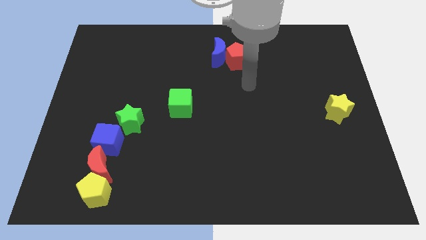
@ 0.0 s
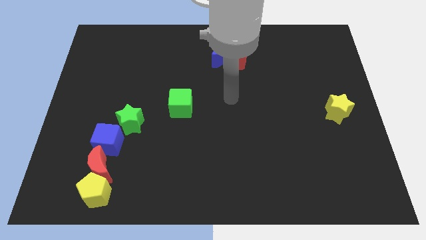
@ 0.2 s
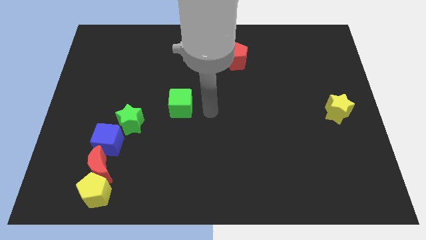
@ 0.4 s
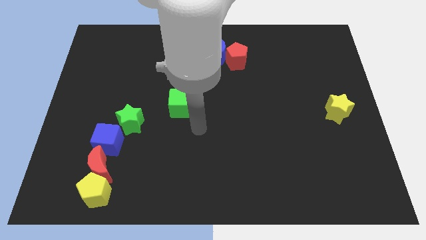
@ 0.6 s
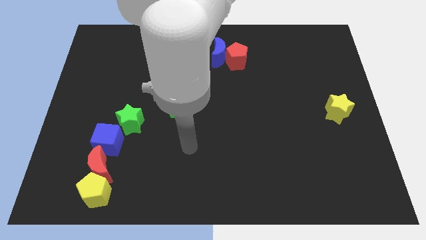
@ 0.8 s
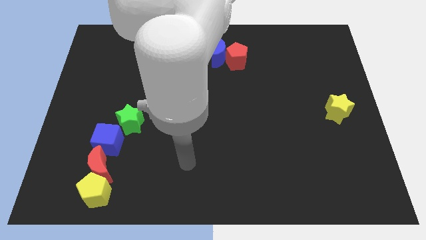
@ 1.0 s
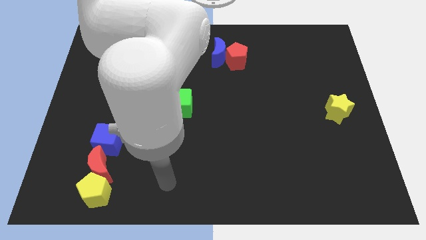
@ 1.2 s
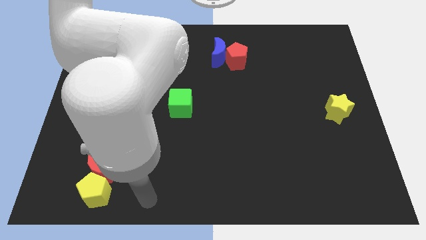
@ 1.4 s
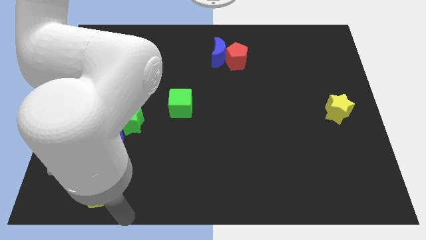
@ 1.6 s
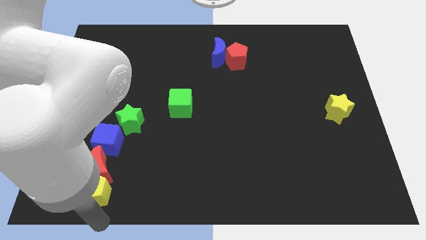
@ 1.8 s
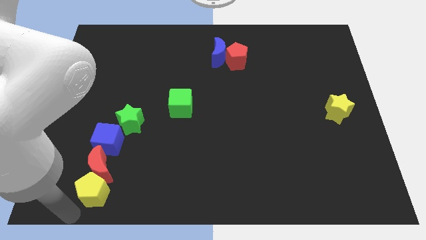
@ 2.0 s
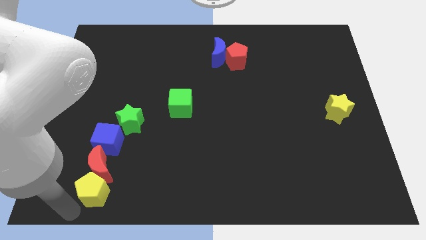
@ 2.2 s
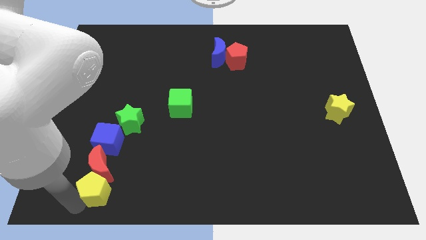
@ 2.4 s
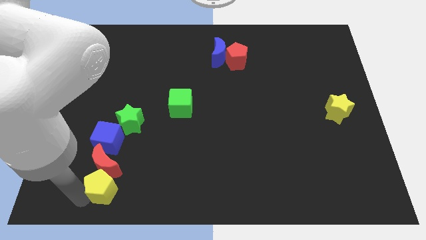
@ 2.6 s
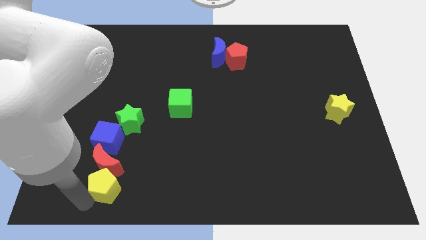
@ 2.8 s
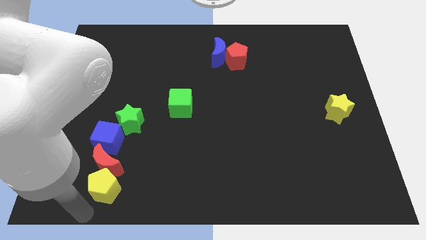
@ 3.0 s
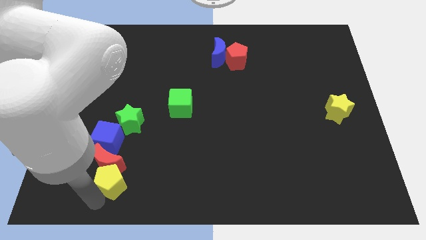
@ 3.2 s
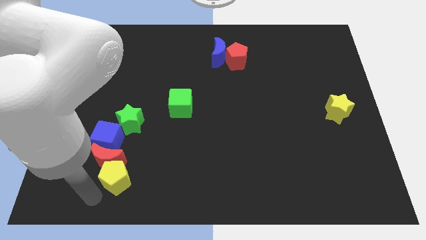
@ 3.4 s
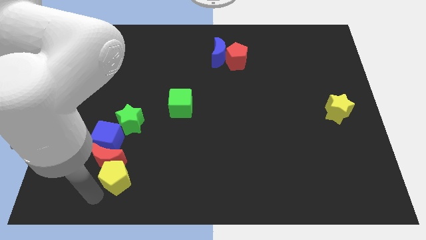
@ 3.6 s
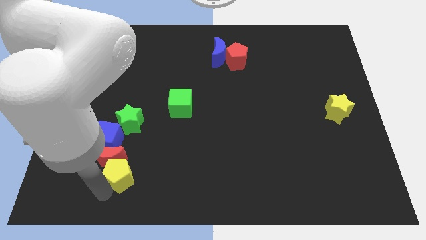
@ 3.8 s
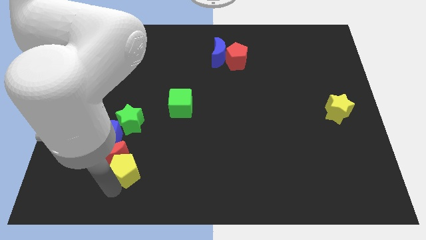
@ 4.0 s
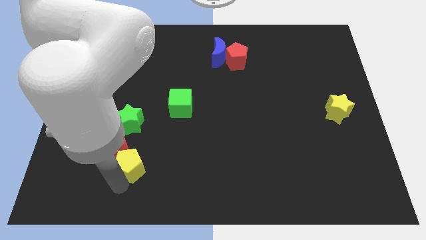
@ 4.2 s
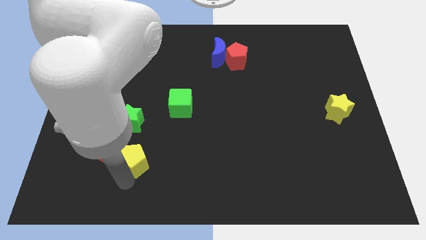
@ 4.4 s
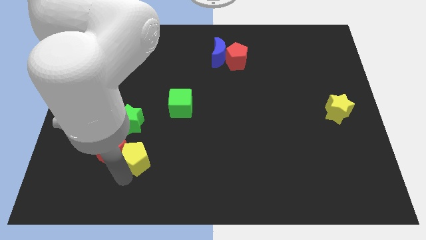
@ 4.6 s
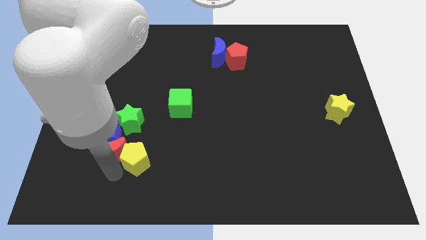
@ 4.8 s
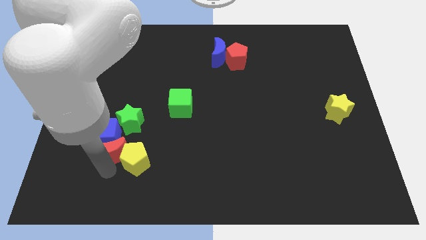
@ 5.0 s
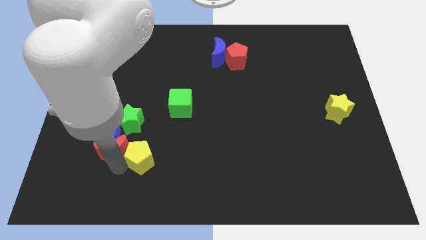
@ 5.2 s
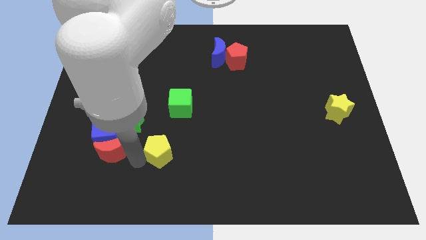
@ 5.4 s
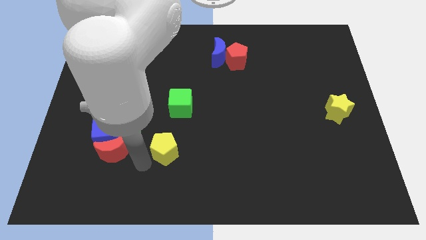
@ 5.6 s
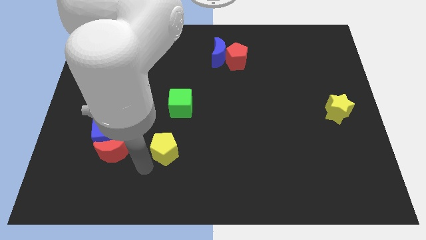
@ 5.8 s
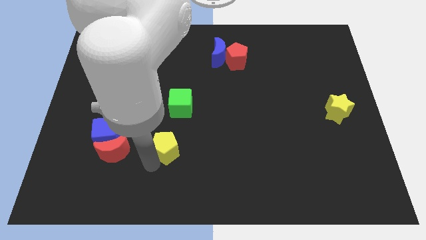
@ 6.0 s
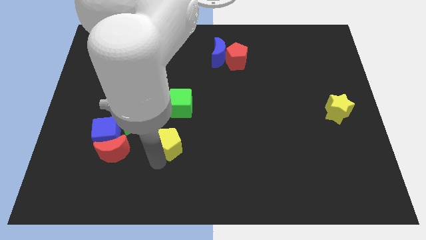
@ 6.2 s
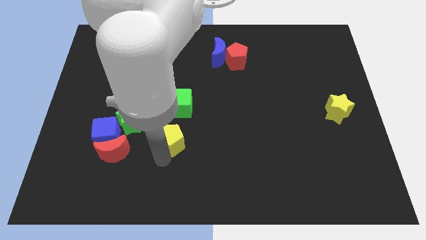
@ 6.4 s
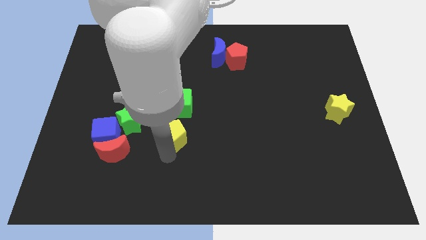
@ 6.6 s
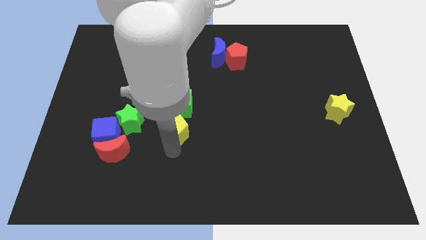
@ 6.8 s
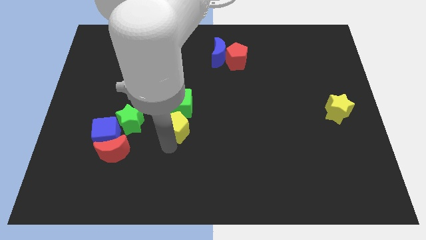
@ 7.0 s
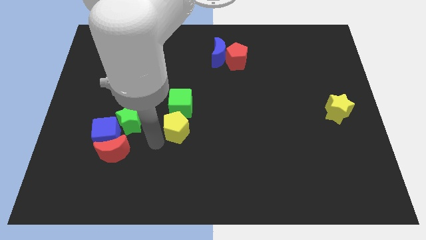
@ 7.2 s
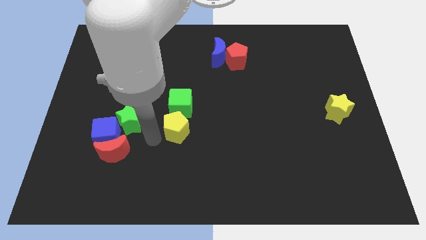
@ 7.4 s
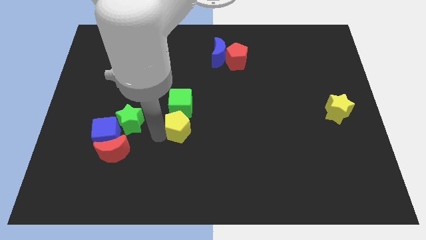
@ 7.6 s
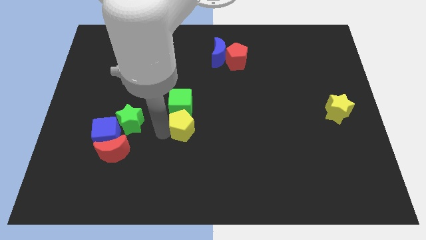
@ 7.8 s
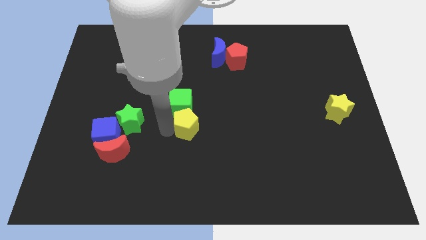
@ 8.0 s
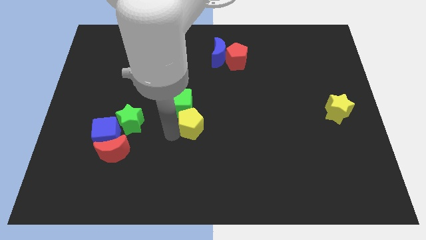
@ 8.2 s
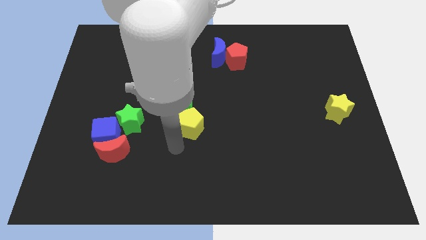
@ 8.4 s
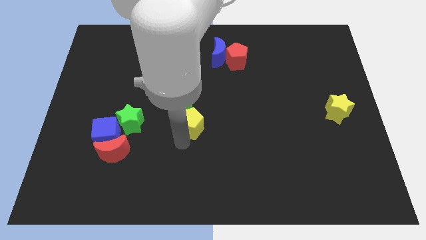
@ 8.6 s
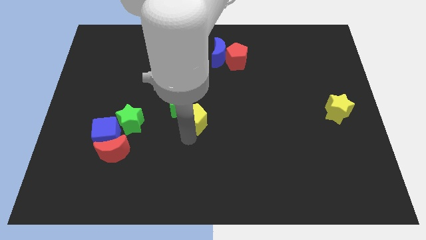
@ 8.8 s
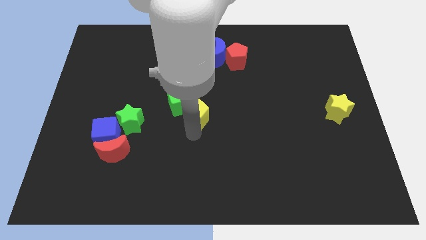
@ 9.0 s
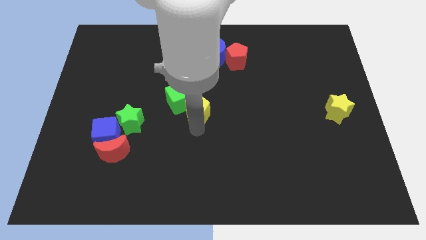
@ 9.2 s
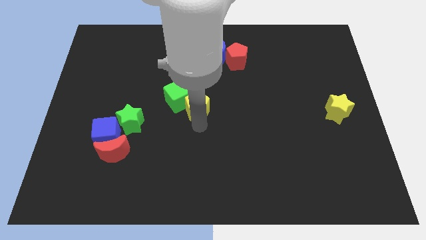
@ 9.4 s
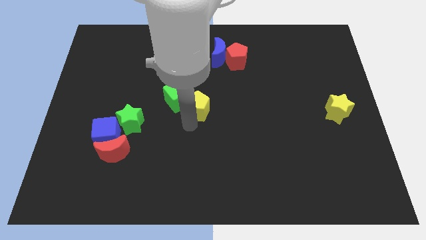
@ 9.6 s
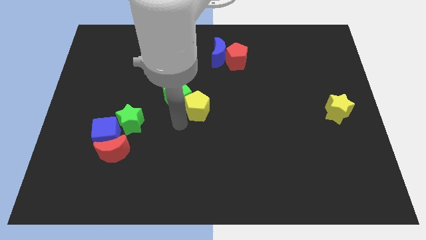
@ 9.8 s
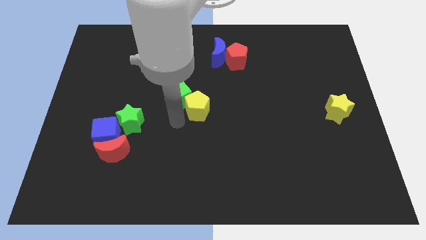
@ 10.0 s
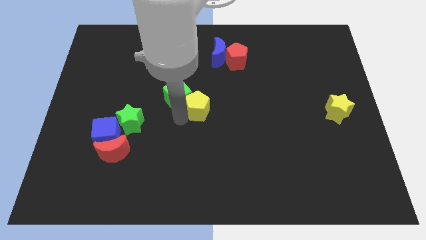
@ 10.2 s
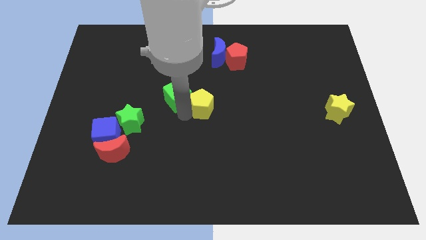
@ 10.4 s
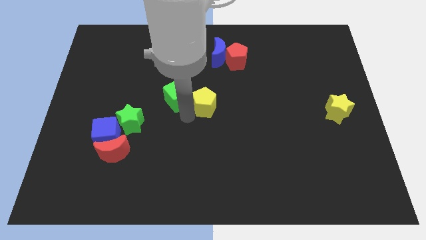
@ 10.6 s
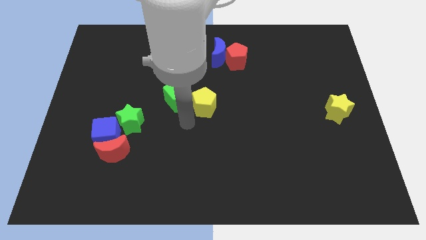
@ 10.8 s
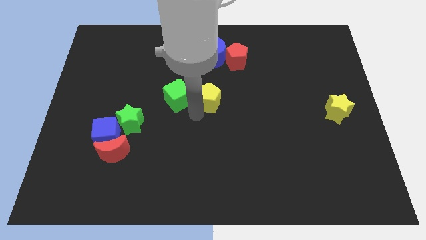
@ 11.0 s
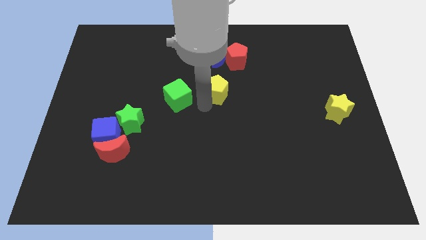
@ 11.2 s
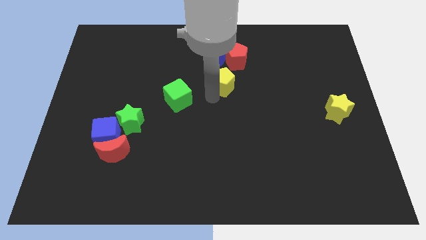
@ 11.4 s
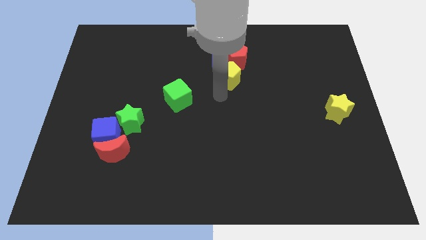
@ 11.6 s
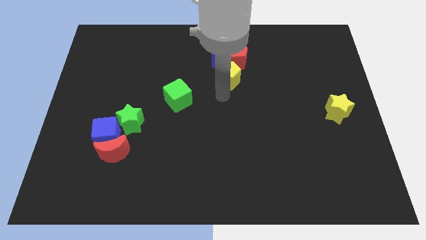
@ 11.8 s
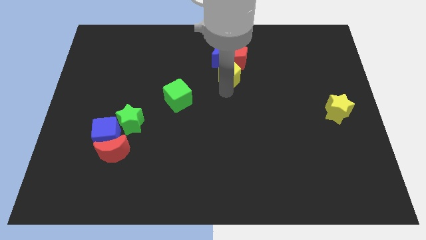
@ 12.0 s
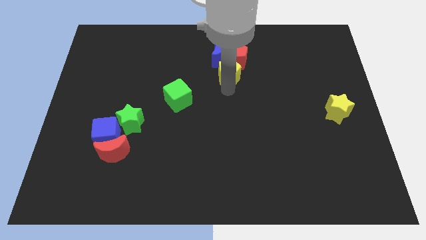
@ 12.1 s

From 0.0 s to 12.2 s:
put the yellow pentagon towards the red pentagon

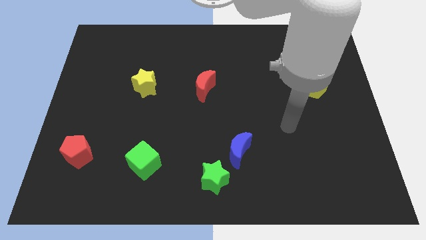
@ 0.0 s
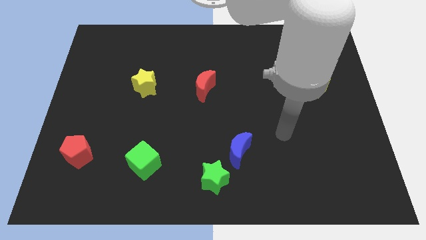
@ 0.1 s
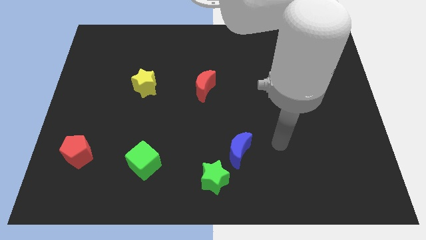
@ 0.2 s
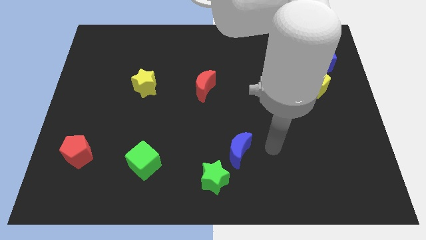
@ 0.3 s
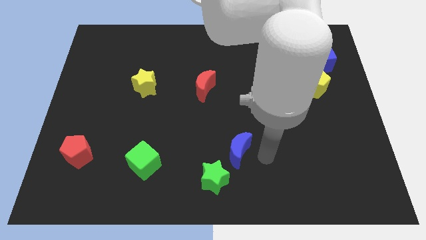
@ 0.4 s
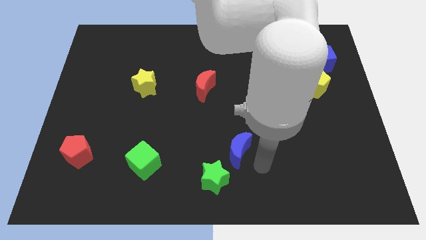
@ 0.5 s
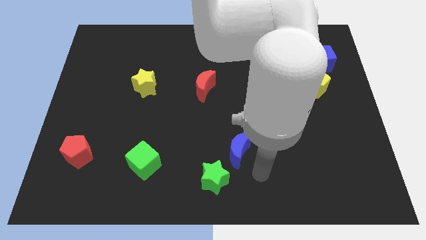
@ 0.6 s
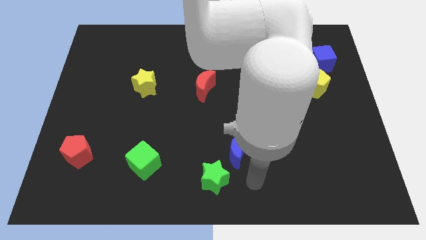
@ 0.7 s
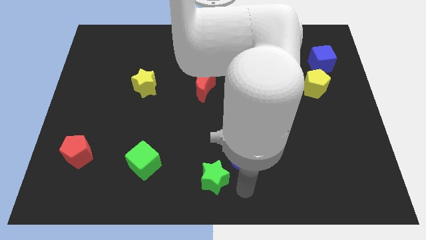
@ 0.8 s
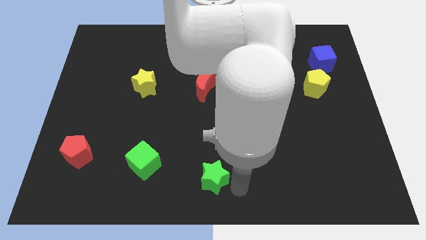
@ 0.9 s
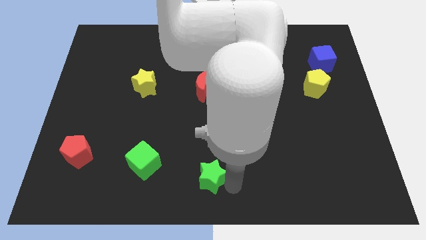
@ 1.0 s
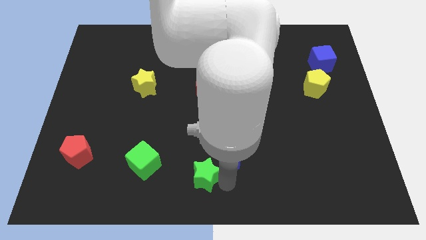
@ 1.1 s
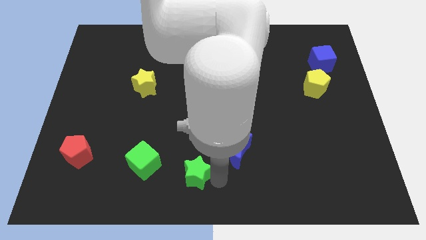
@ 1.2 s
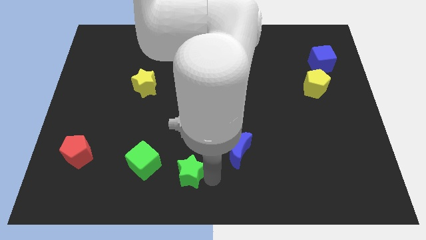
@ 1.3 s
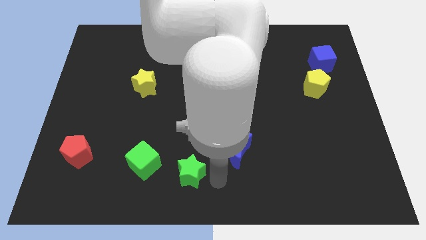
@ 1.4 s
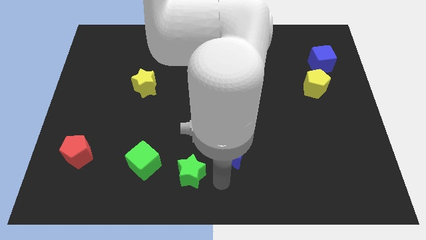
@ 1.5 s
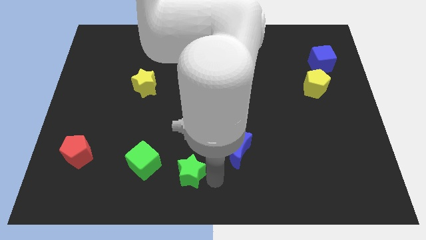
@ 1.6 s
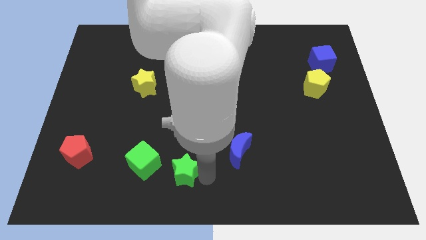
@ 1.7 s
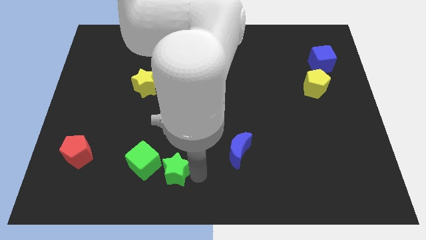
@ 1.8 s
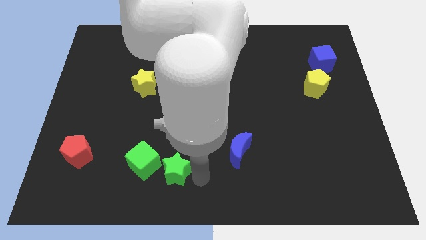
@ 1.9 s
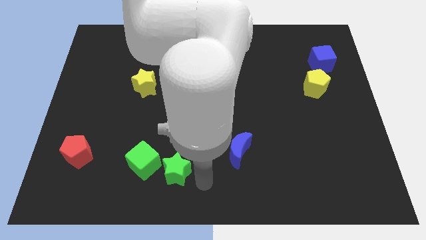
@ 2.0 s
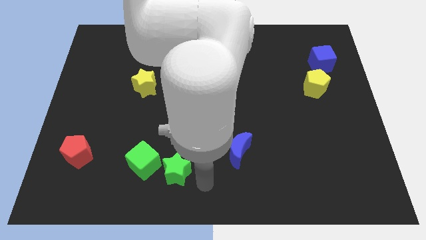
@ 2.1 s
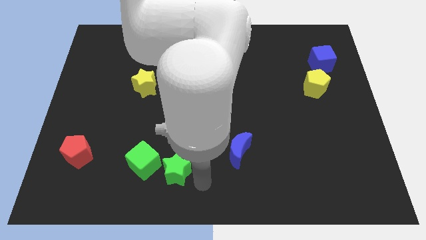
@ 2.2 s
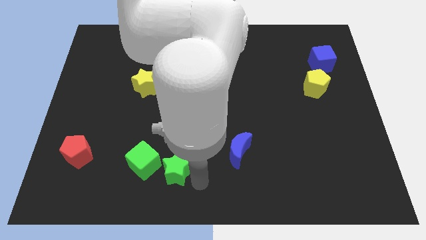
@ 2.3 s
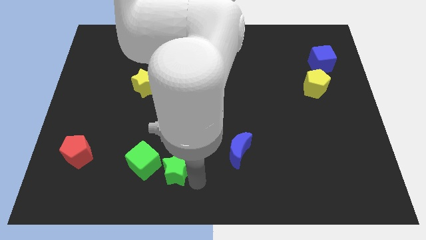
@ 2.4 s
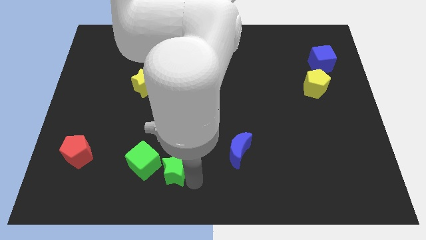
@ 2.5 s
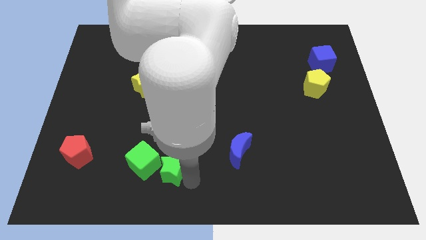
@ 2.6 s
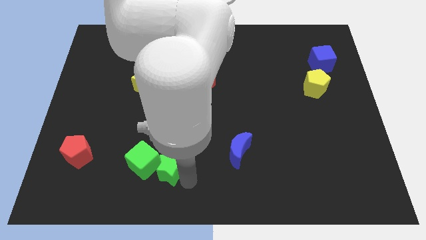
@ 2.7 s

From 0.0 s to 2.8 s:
push the green star towards the green cube
